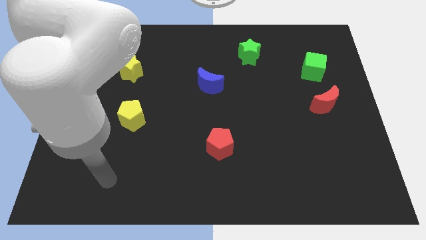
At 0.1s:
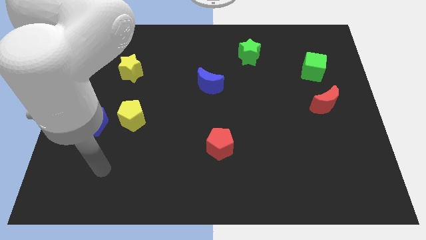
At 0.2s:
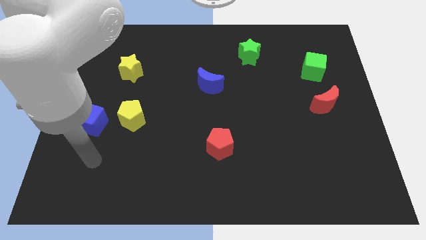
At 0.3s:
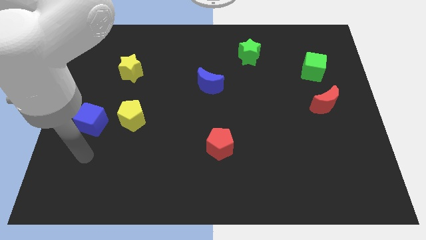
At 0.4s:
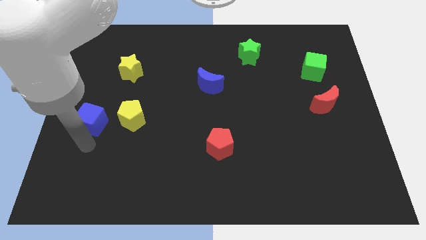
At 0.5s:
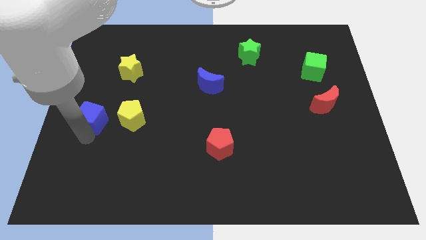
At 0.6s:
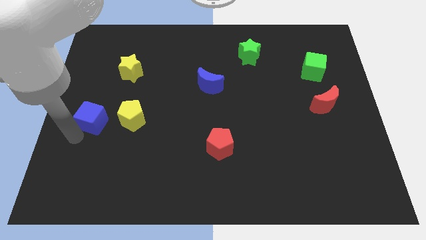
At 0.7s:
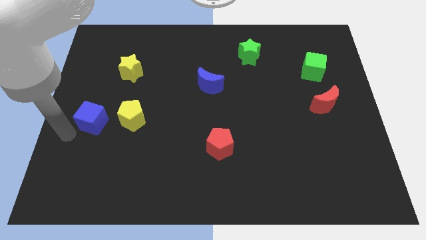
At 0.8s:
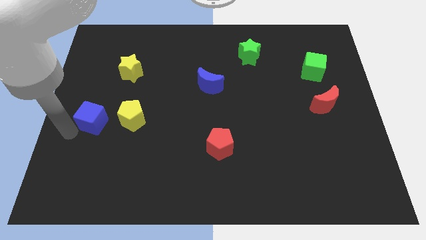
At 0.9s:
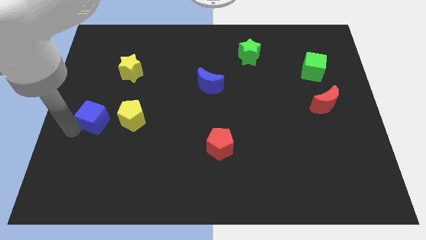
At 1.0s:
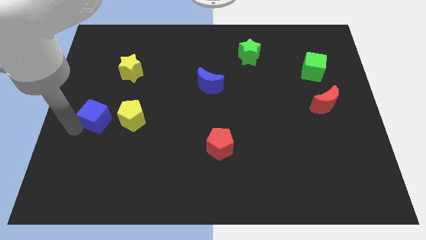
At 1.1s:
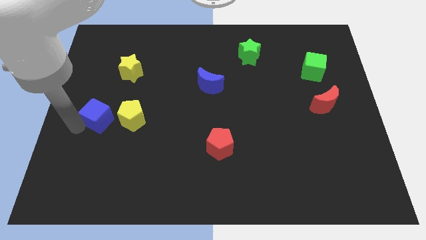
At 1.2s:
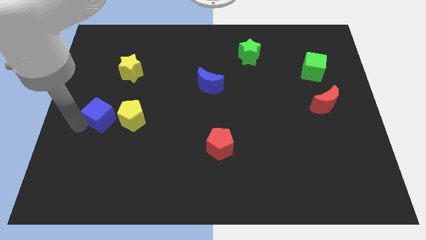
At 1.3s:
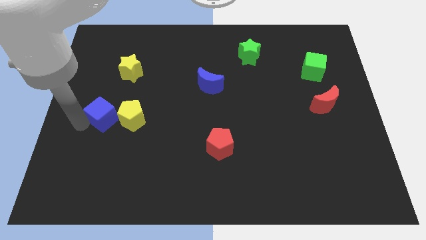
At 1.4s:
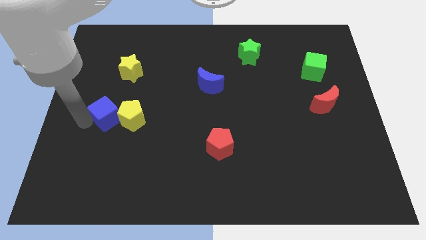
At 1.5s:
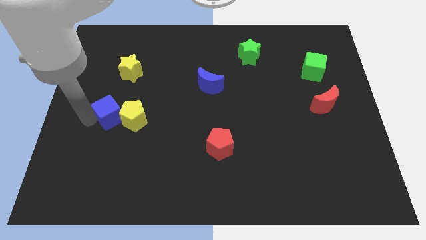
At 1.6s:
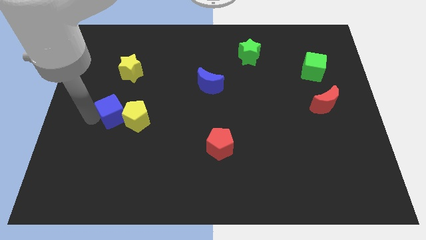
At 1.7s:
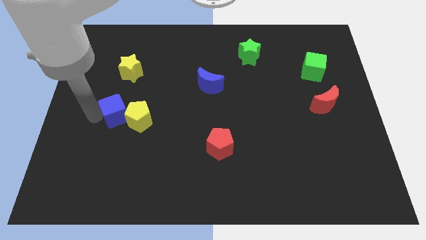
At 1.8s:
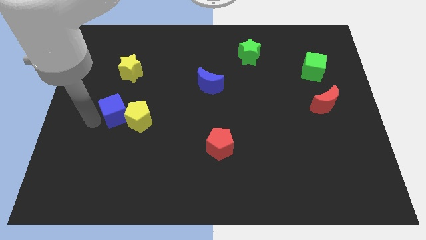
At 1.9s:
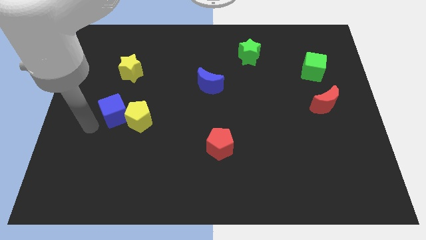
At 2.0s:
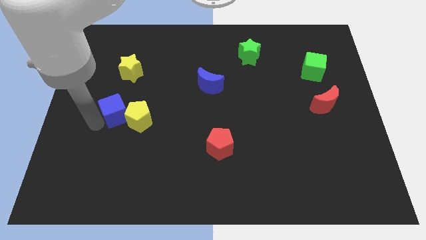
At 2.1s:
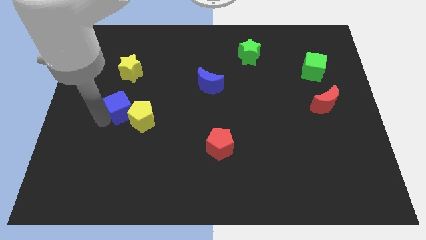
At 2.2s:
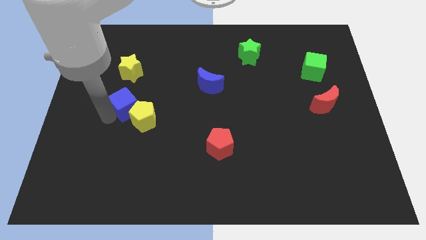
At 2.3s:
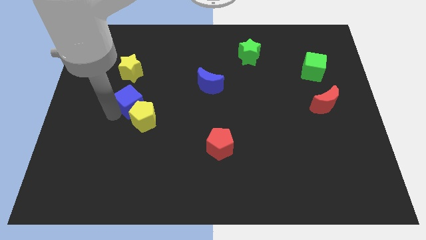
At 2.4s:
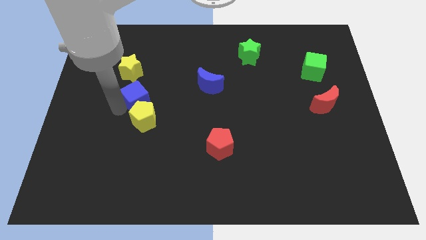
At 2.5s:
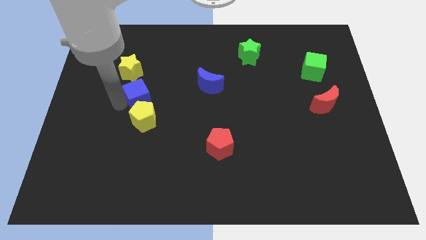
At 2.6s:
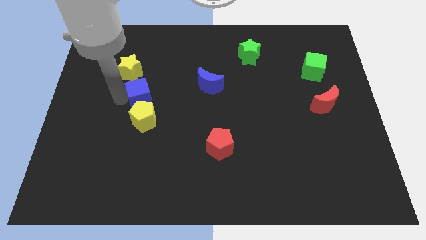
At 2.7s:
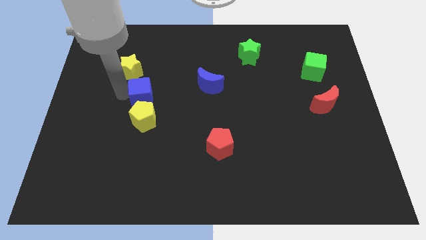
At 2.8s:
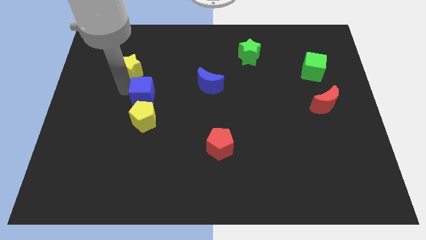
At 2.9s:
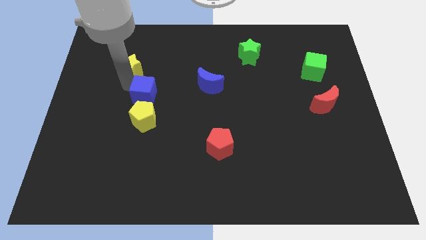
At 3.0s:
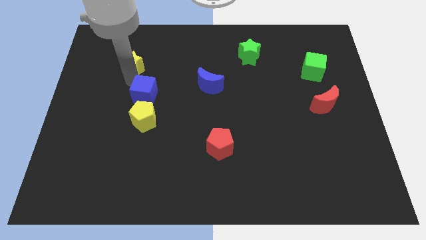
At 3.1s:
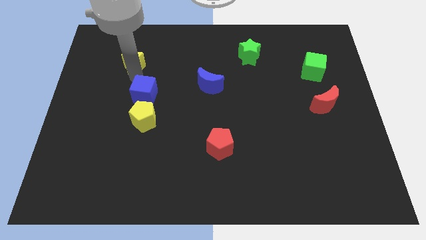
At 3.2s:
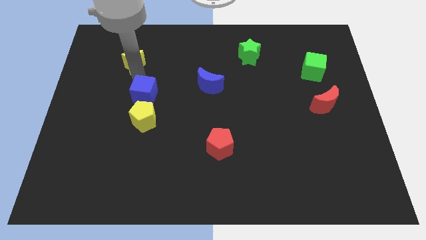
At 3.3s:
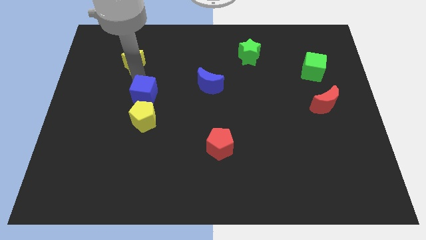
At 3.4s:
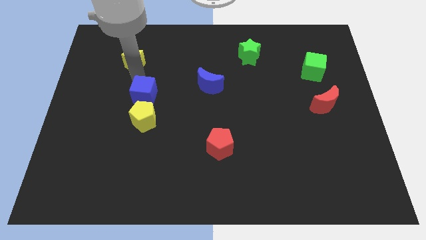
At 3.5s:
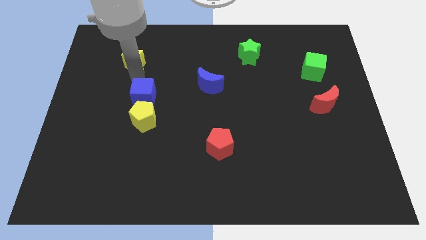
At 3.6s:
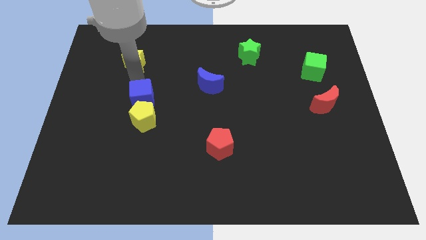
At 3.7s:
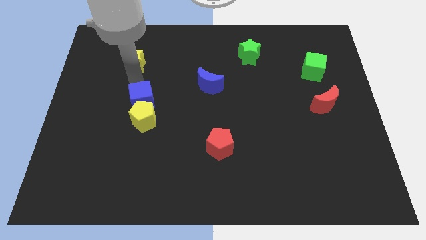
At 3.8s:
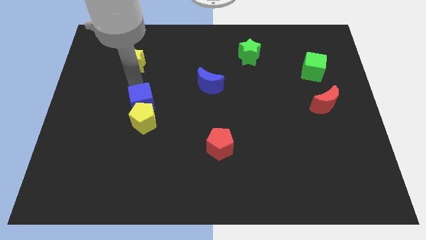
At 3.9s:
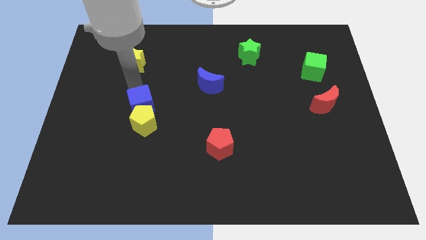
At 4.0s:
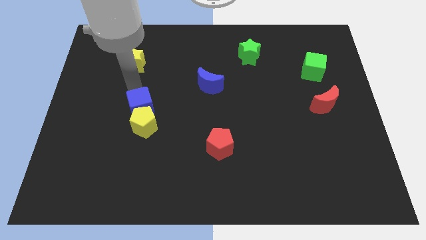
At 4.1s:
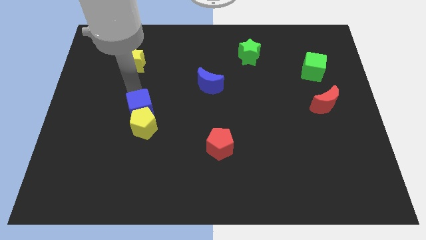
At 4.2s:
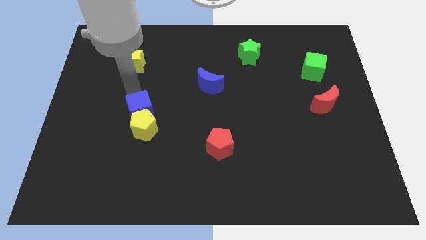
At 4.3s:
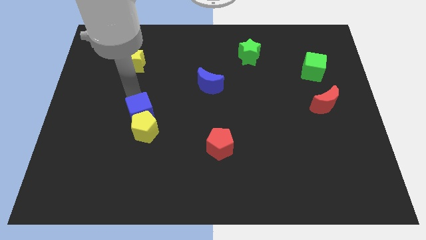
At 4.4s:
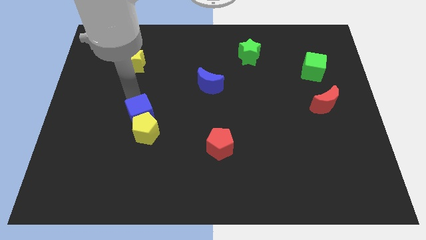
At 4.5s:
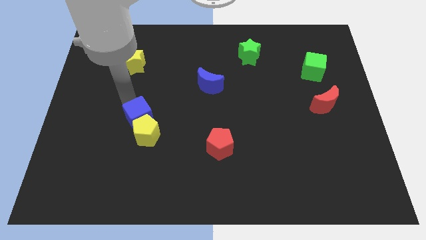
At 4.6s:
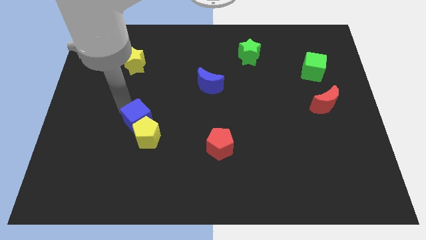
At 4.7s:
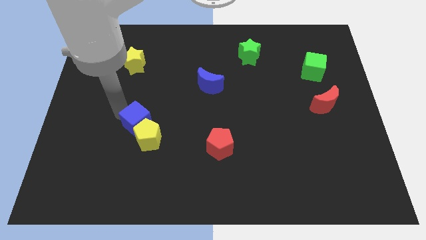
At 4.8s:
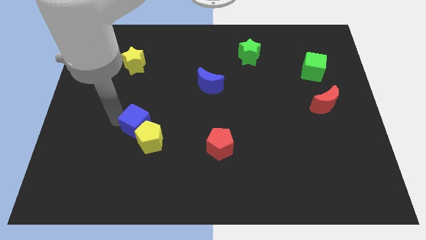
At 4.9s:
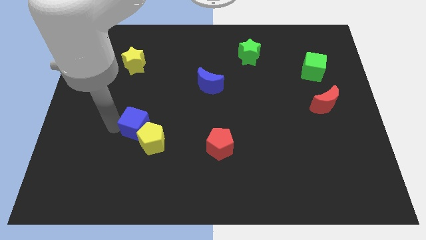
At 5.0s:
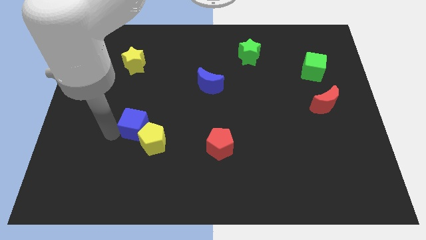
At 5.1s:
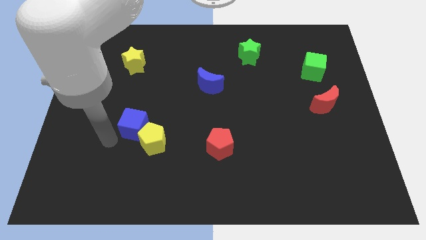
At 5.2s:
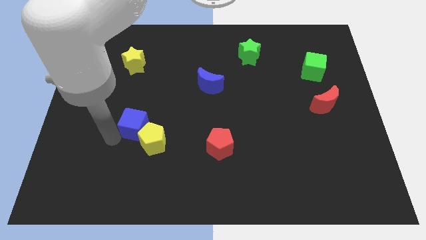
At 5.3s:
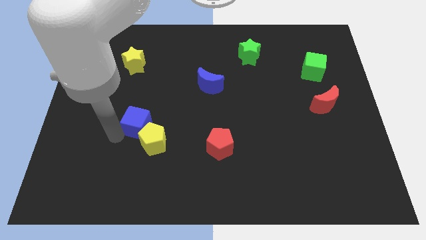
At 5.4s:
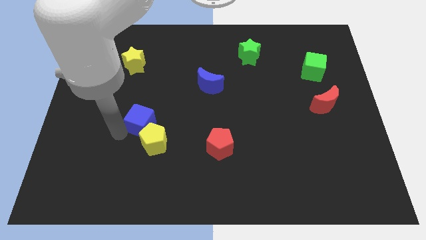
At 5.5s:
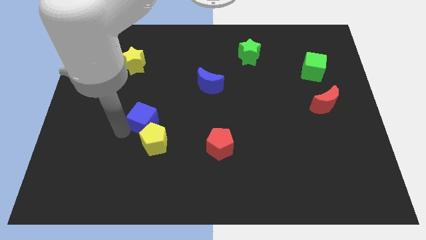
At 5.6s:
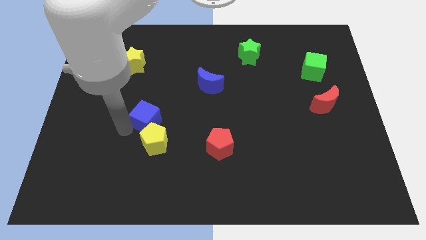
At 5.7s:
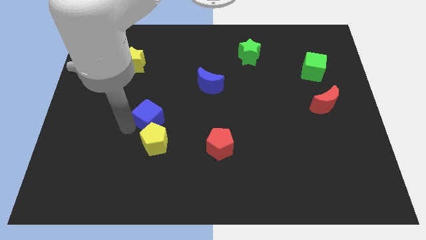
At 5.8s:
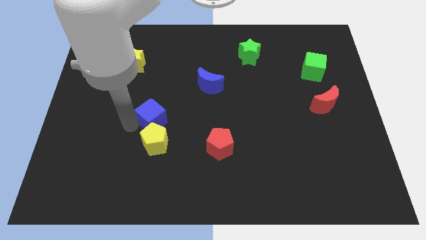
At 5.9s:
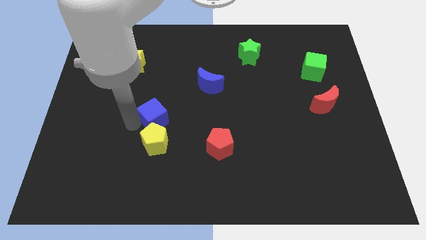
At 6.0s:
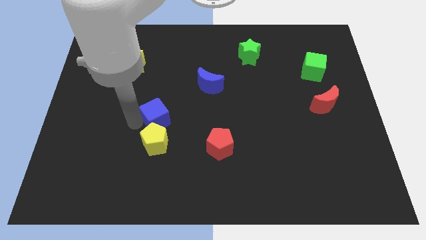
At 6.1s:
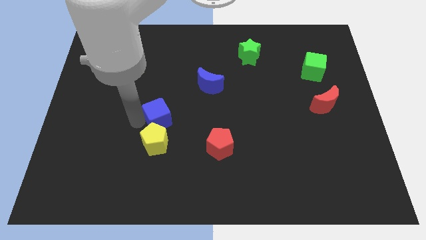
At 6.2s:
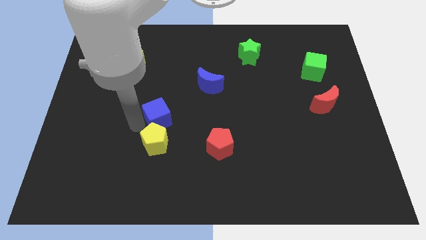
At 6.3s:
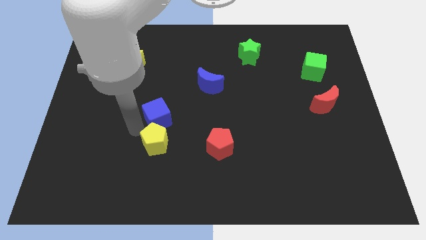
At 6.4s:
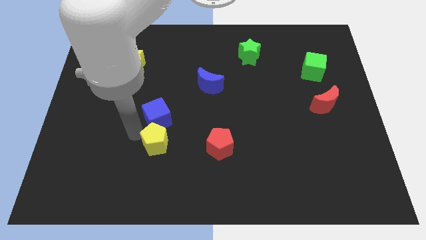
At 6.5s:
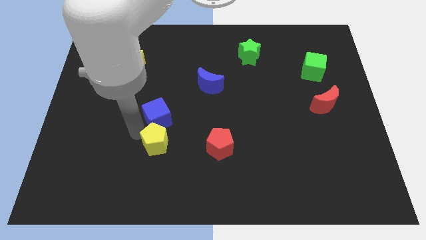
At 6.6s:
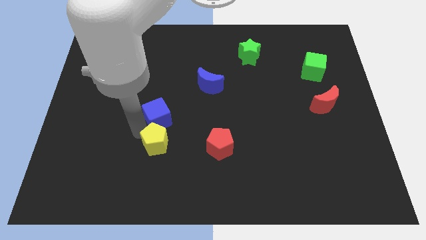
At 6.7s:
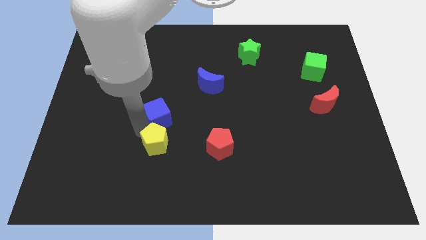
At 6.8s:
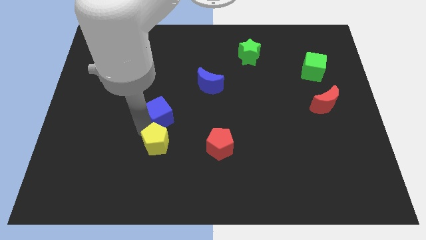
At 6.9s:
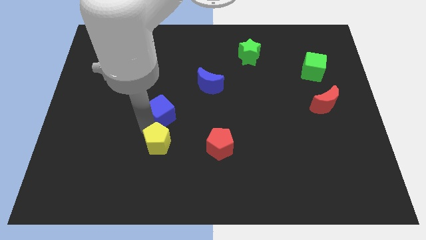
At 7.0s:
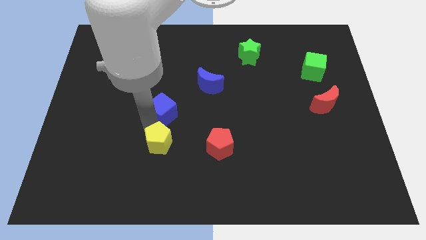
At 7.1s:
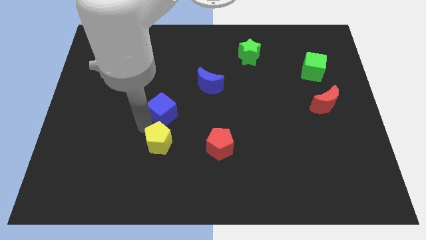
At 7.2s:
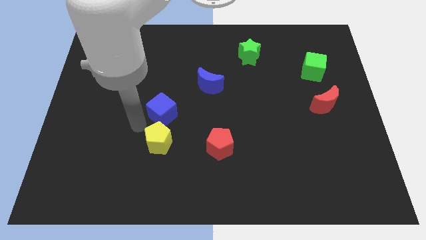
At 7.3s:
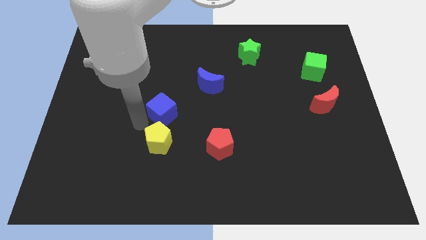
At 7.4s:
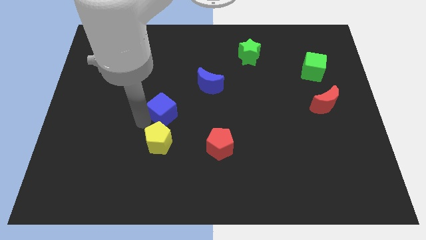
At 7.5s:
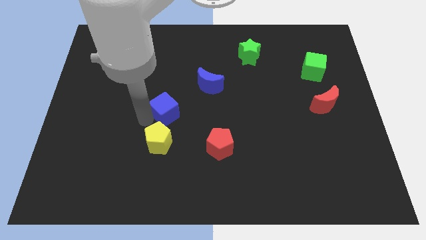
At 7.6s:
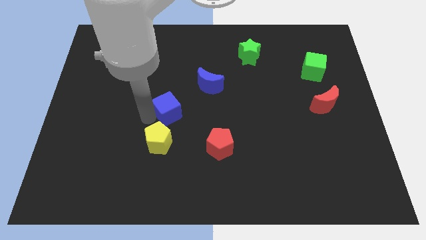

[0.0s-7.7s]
move the blue cube to the bottom left of the blue moon
